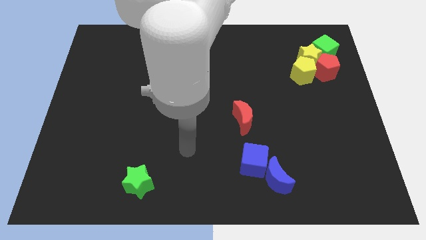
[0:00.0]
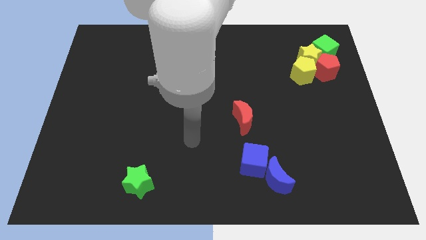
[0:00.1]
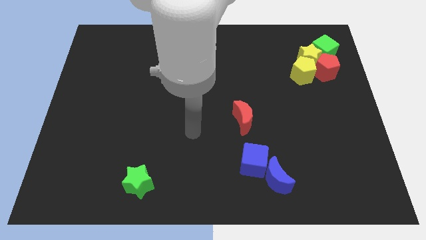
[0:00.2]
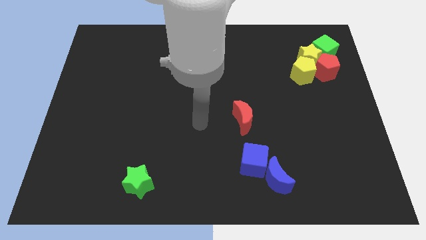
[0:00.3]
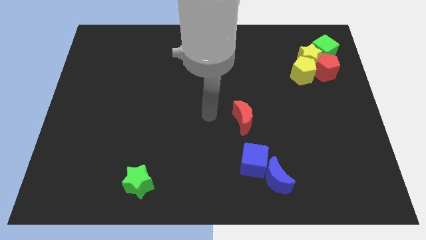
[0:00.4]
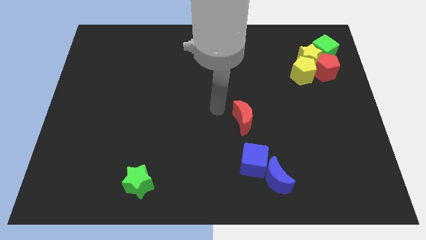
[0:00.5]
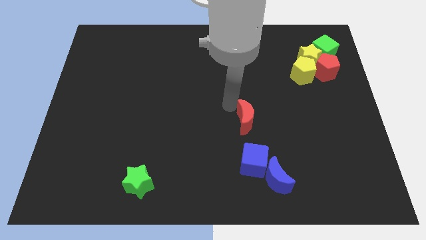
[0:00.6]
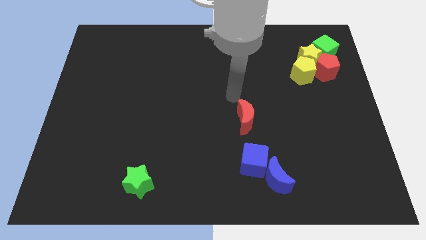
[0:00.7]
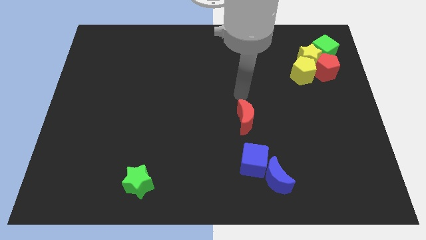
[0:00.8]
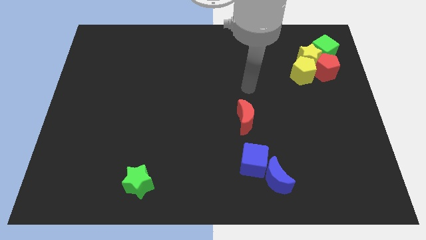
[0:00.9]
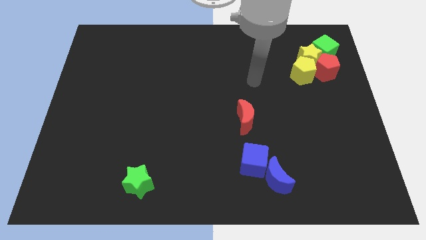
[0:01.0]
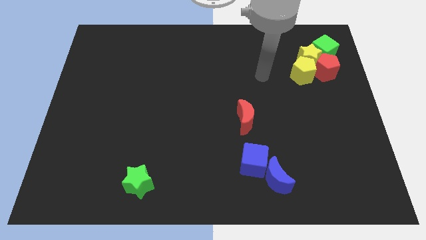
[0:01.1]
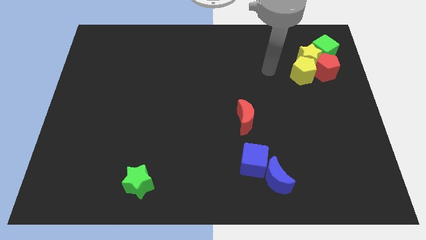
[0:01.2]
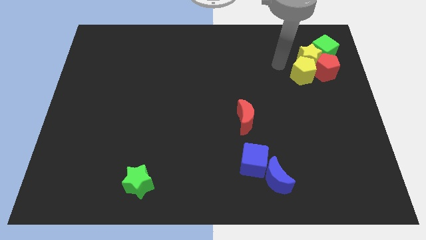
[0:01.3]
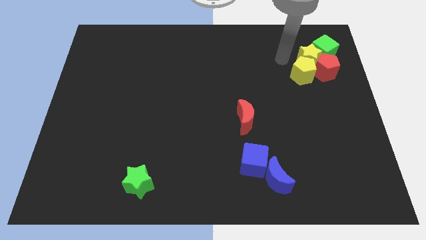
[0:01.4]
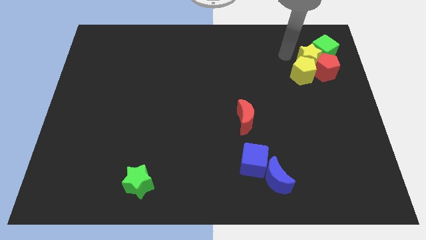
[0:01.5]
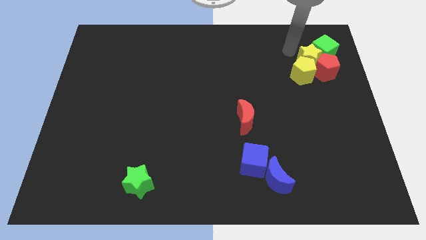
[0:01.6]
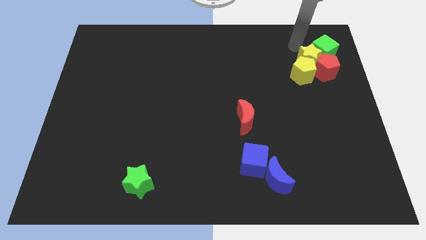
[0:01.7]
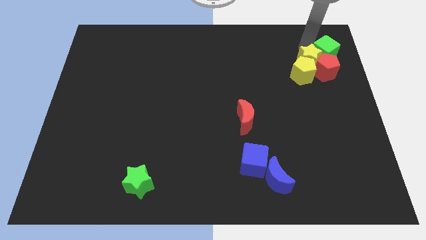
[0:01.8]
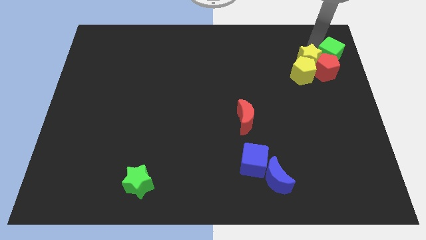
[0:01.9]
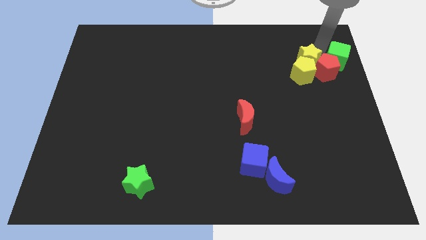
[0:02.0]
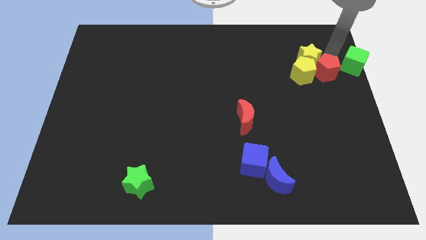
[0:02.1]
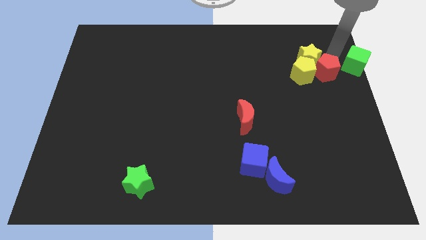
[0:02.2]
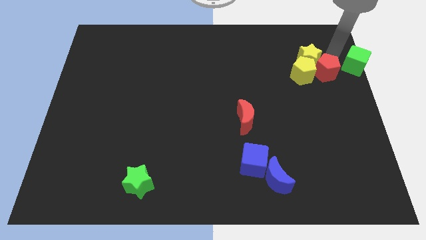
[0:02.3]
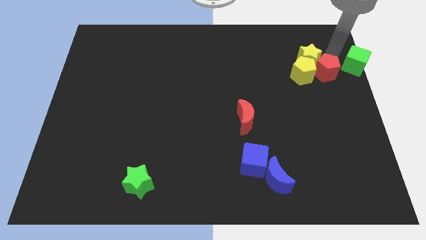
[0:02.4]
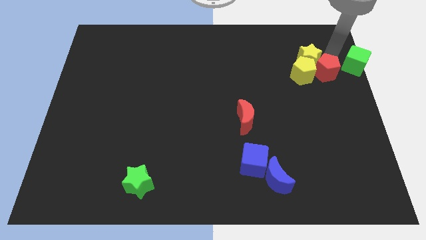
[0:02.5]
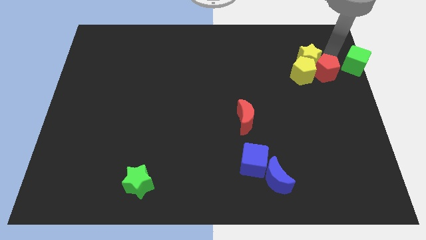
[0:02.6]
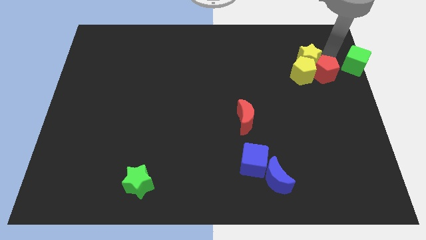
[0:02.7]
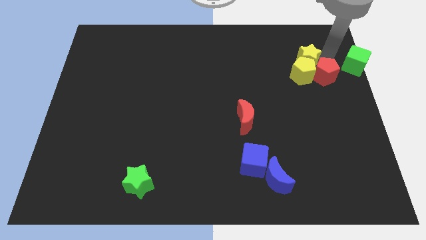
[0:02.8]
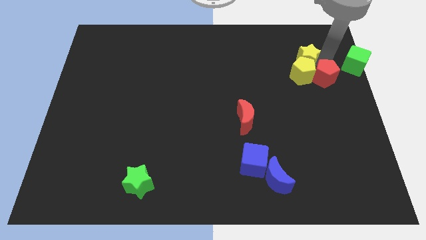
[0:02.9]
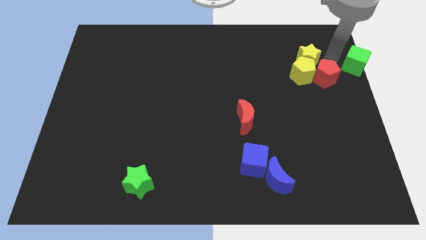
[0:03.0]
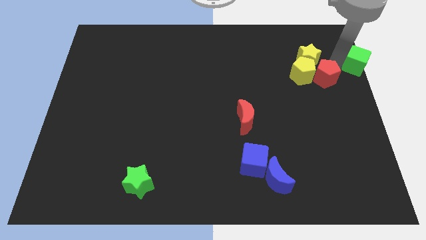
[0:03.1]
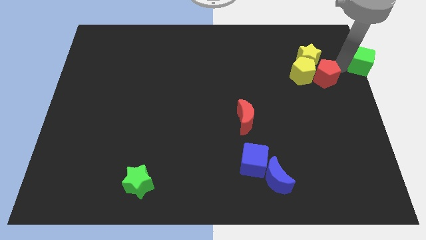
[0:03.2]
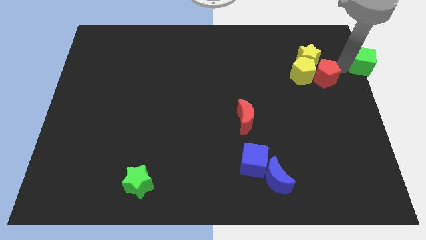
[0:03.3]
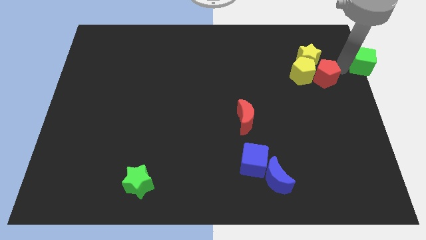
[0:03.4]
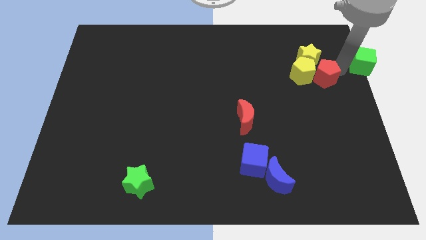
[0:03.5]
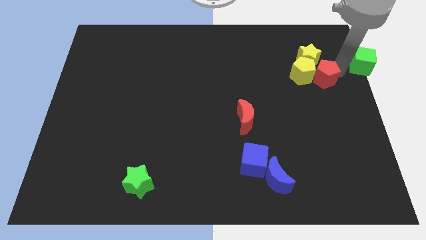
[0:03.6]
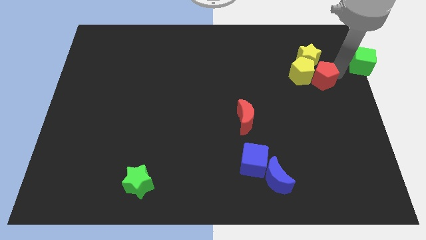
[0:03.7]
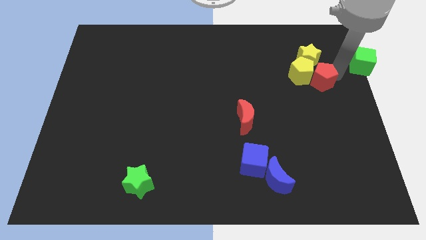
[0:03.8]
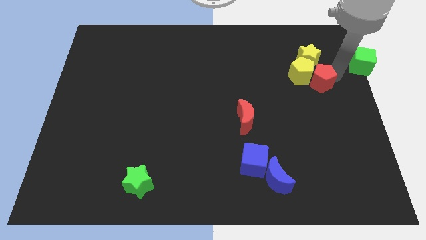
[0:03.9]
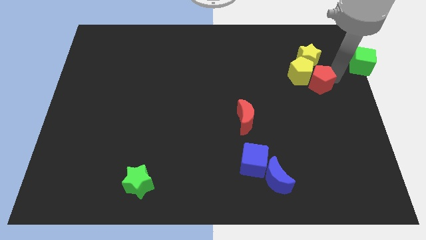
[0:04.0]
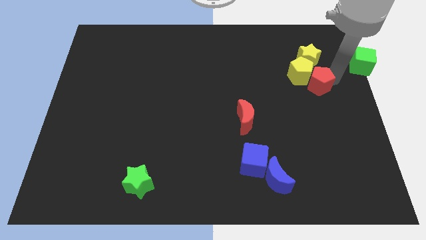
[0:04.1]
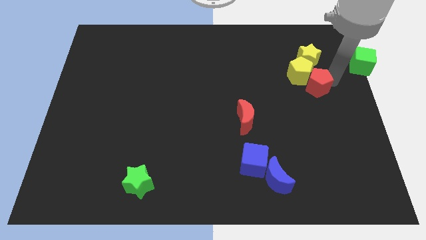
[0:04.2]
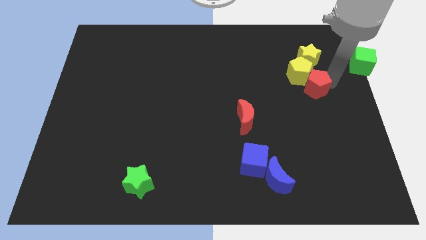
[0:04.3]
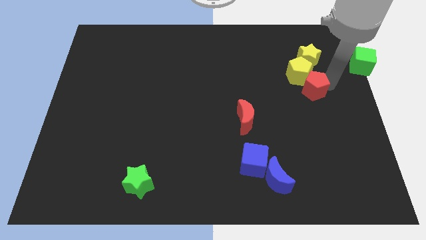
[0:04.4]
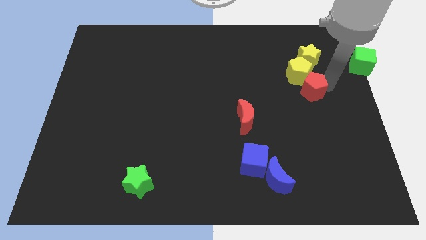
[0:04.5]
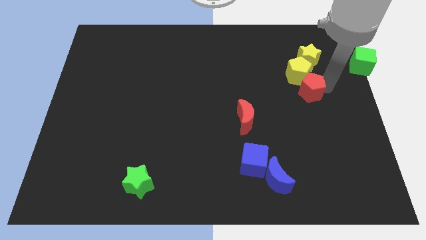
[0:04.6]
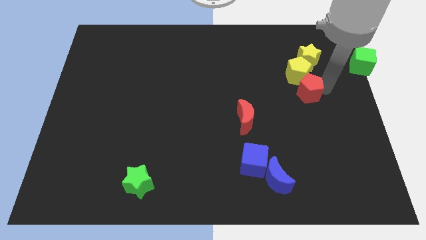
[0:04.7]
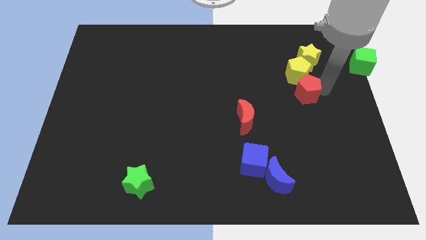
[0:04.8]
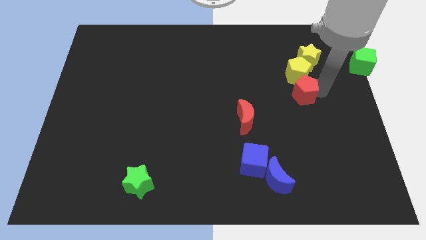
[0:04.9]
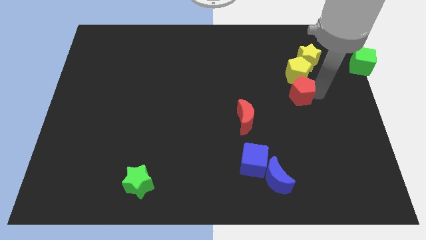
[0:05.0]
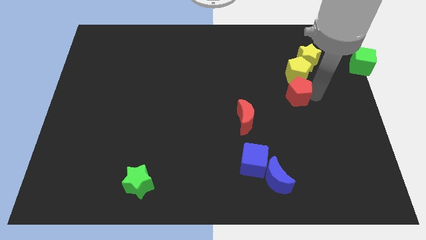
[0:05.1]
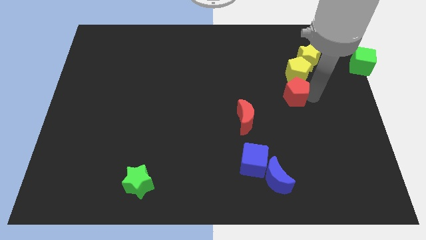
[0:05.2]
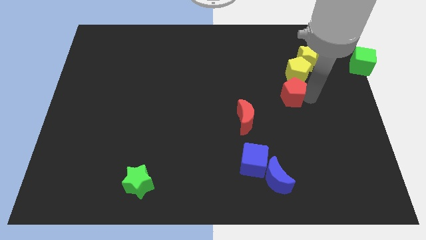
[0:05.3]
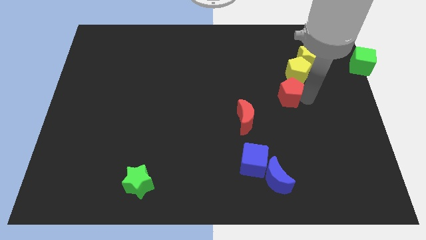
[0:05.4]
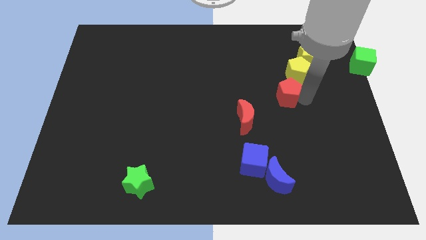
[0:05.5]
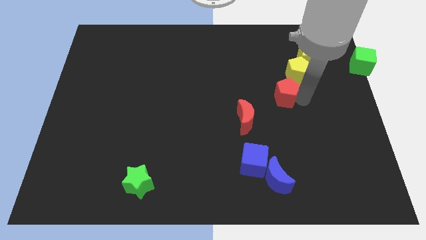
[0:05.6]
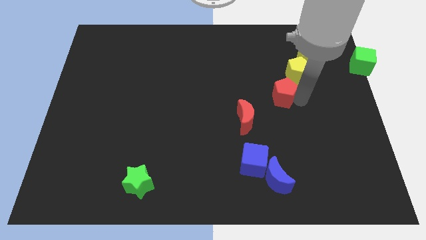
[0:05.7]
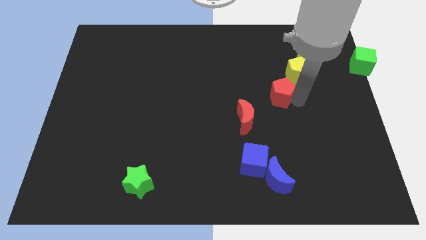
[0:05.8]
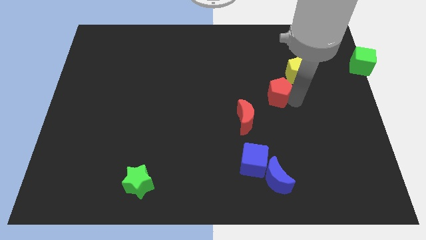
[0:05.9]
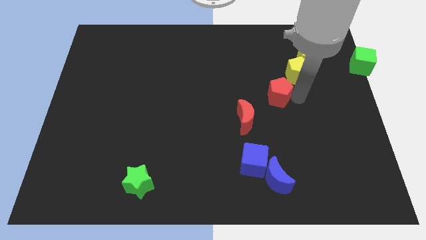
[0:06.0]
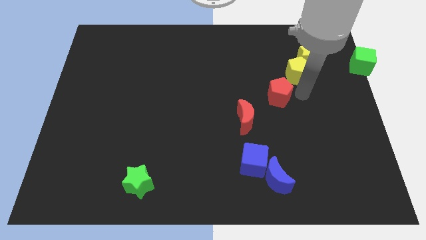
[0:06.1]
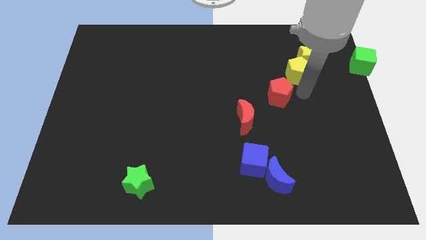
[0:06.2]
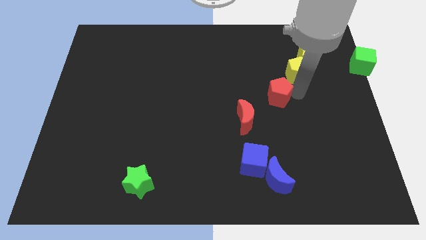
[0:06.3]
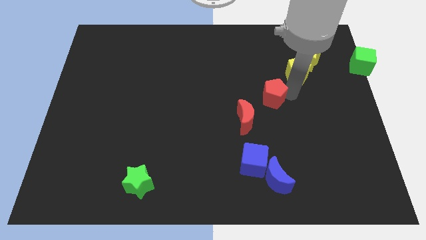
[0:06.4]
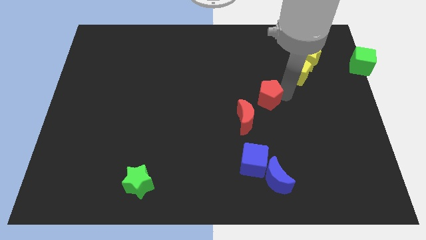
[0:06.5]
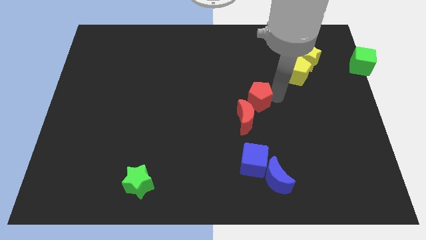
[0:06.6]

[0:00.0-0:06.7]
push the red pentagon to the center
